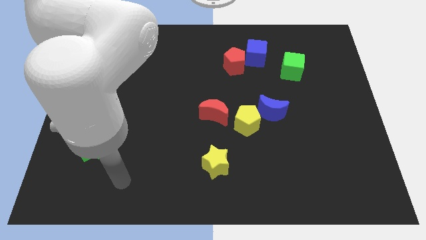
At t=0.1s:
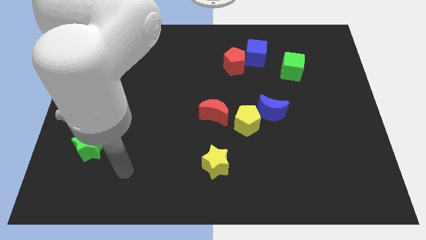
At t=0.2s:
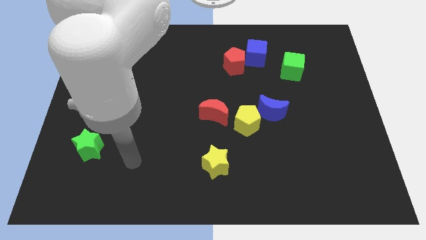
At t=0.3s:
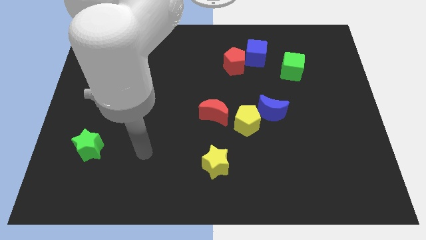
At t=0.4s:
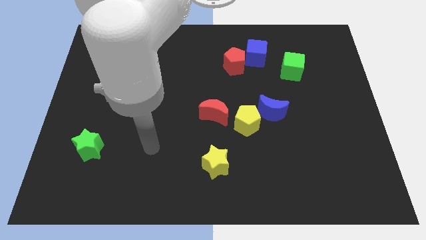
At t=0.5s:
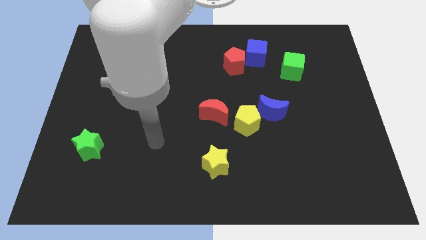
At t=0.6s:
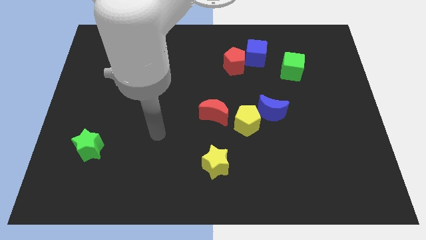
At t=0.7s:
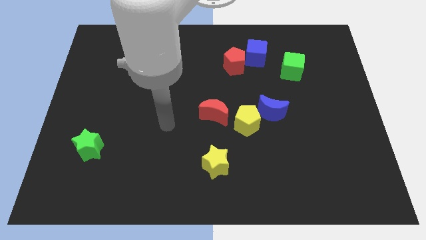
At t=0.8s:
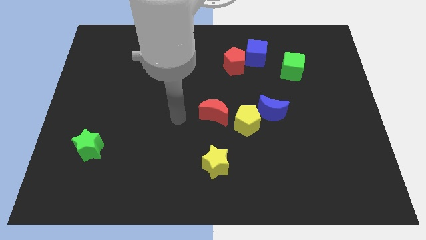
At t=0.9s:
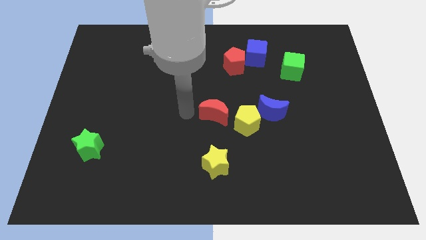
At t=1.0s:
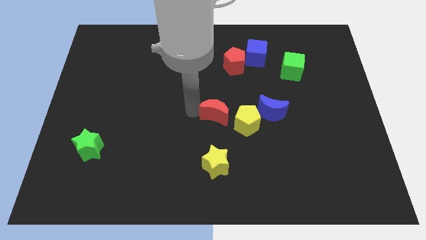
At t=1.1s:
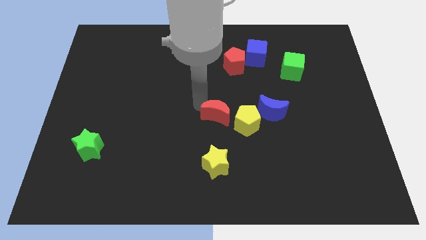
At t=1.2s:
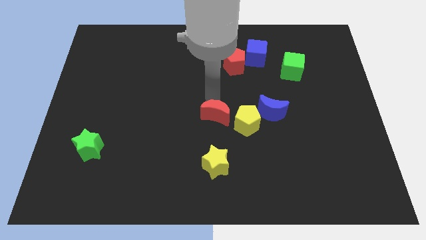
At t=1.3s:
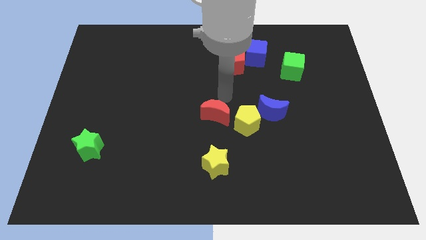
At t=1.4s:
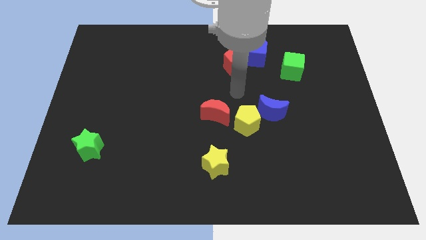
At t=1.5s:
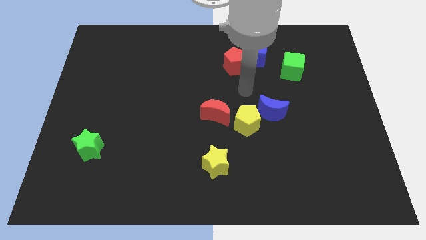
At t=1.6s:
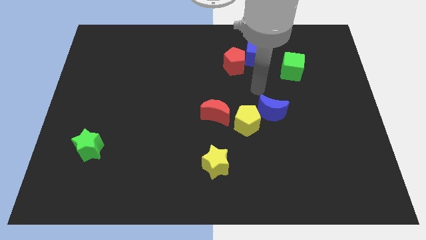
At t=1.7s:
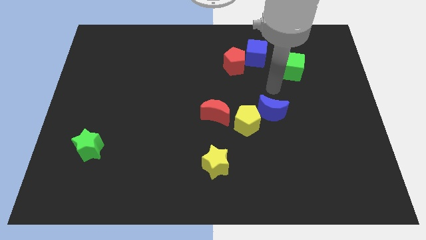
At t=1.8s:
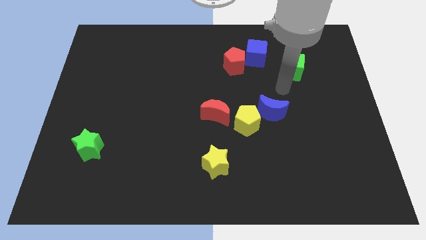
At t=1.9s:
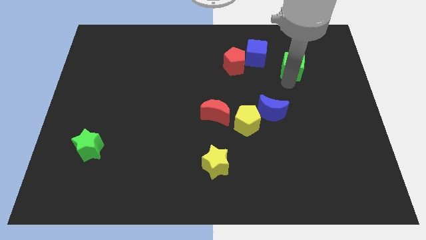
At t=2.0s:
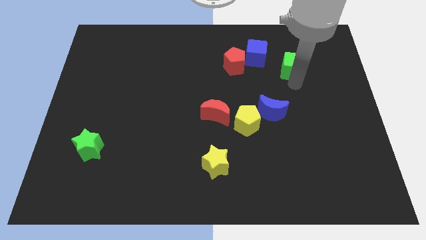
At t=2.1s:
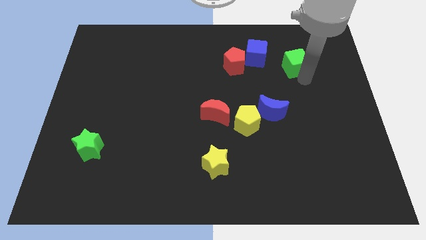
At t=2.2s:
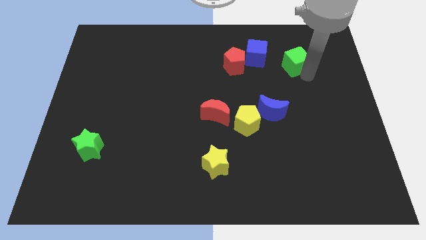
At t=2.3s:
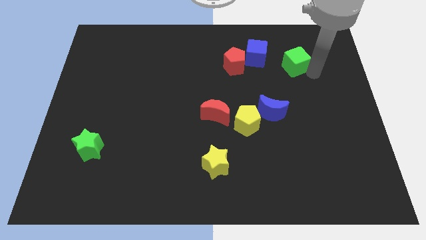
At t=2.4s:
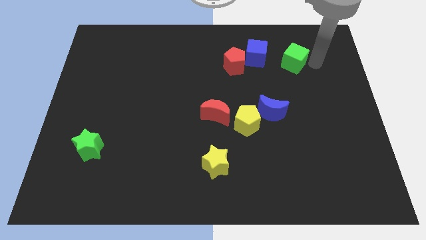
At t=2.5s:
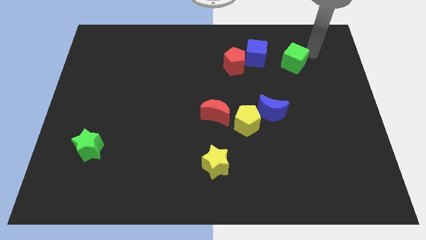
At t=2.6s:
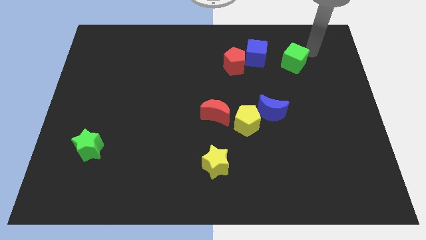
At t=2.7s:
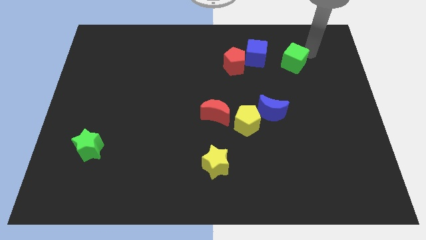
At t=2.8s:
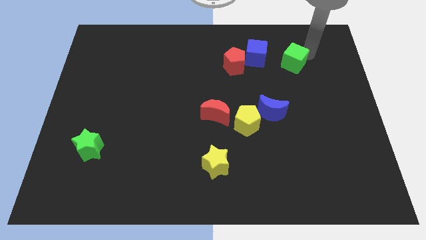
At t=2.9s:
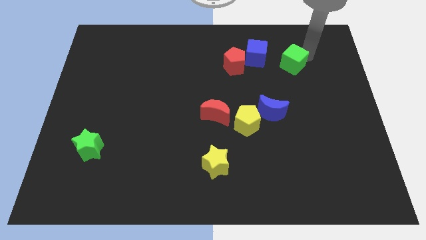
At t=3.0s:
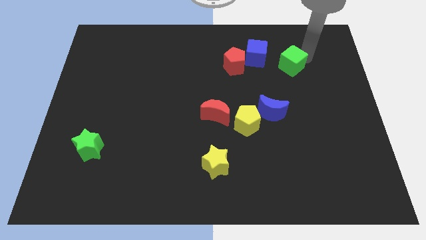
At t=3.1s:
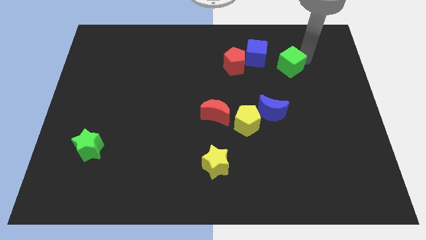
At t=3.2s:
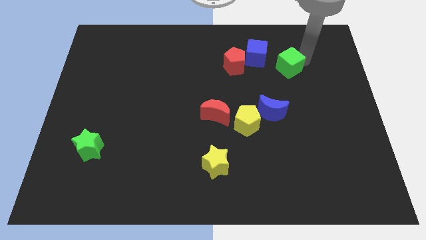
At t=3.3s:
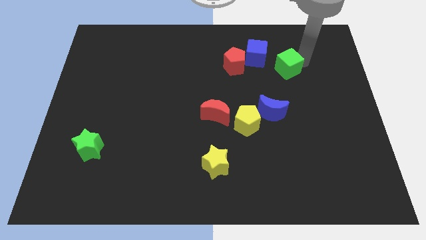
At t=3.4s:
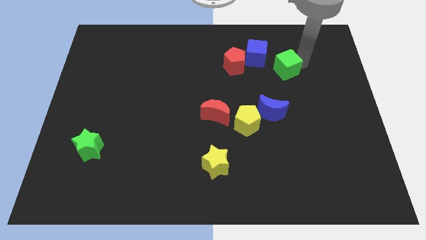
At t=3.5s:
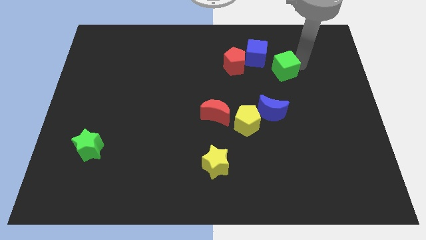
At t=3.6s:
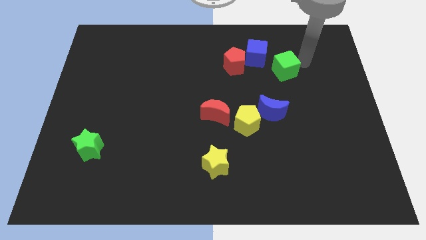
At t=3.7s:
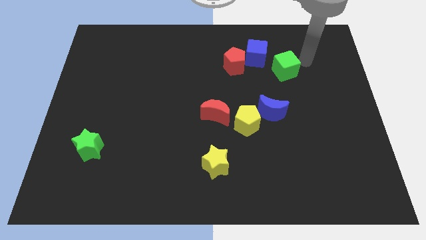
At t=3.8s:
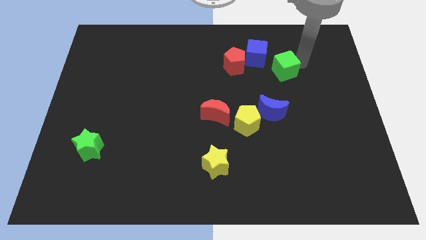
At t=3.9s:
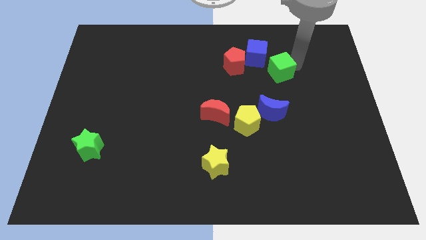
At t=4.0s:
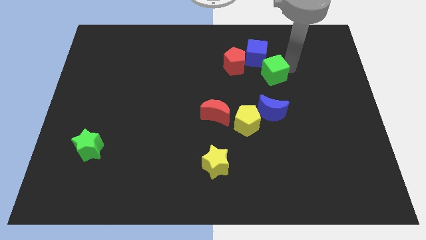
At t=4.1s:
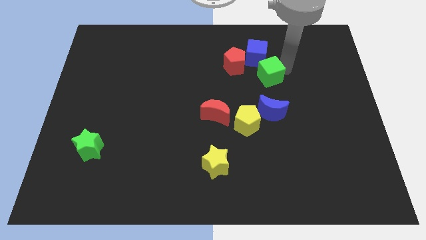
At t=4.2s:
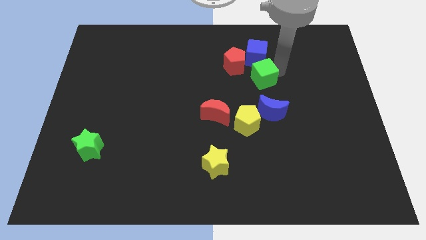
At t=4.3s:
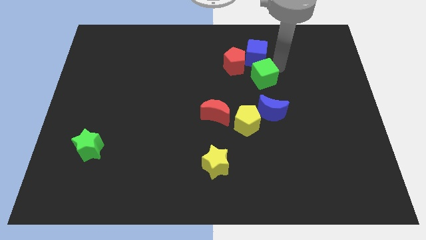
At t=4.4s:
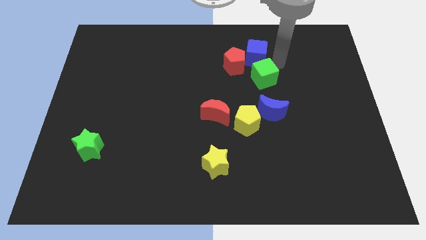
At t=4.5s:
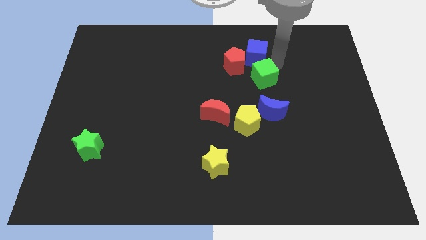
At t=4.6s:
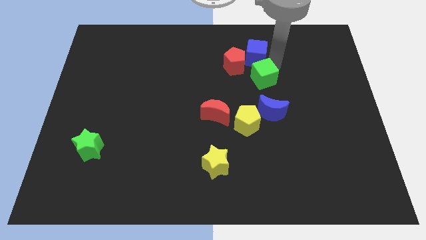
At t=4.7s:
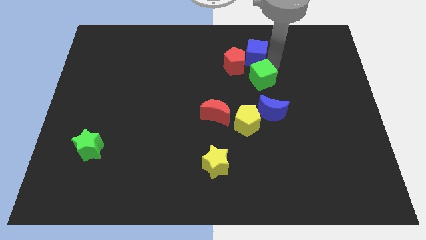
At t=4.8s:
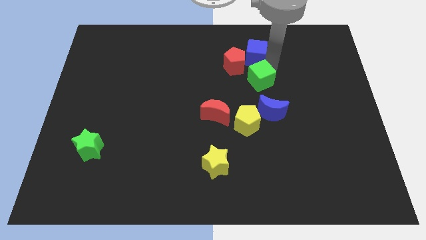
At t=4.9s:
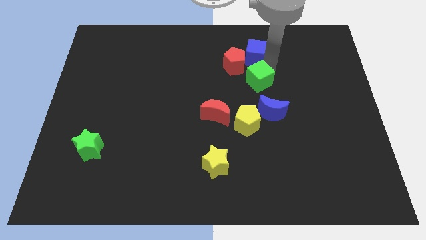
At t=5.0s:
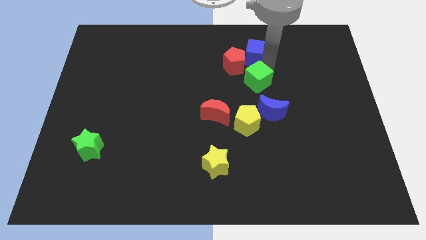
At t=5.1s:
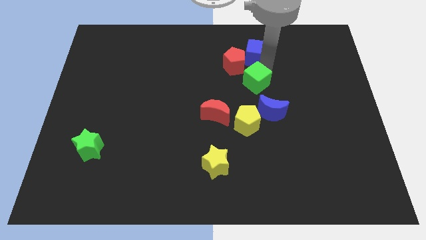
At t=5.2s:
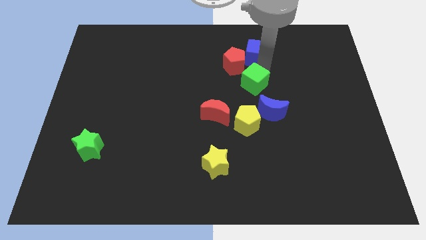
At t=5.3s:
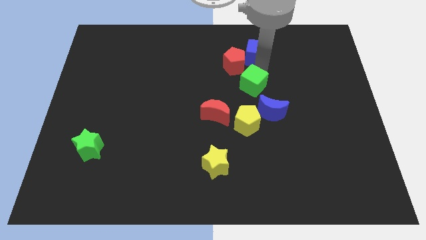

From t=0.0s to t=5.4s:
put the green cube to the top right side of the red moon

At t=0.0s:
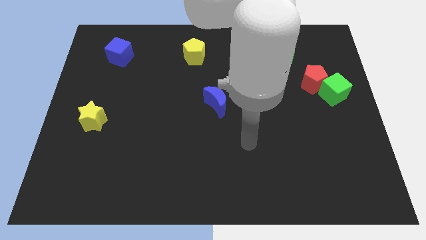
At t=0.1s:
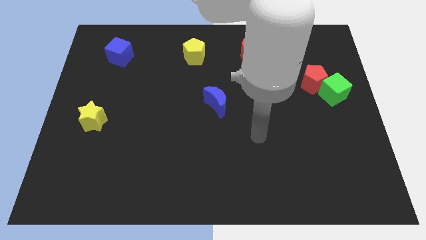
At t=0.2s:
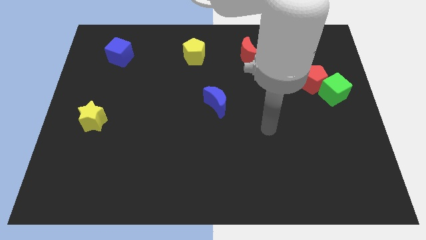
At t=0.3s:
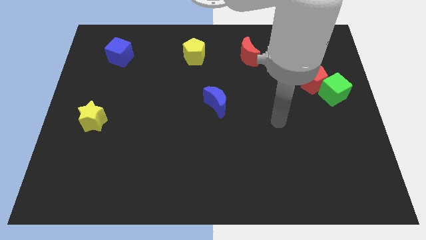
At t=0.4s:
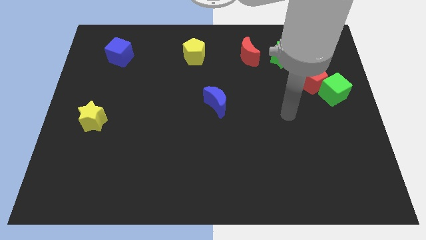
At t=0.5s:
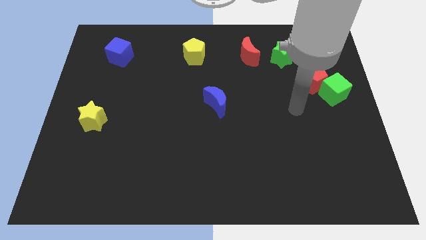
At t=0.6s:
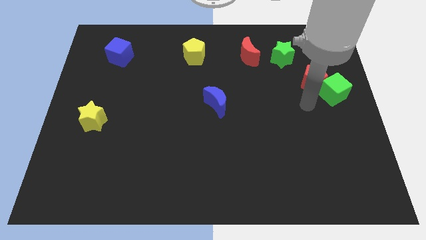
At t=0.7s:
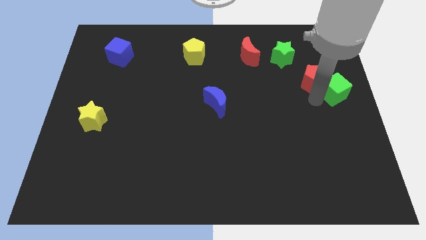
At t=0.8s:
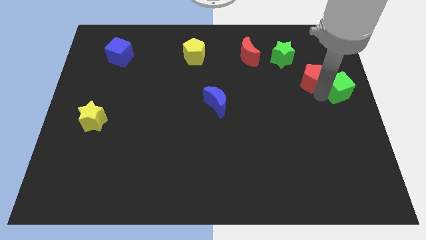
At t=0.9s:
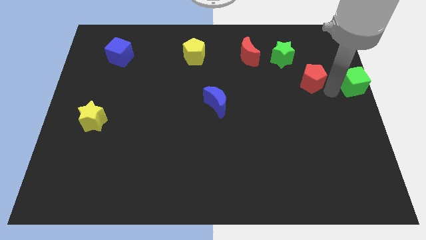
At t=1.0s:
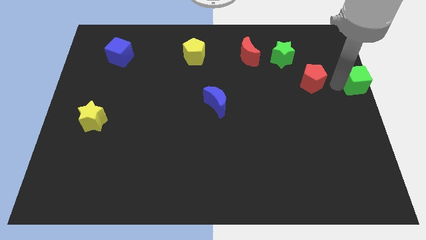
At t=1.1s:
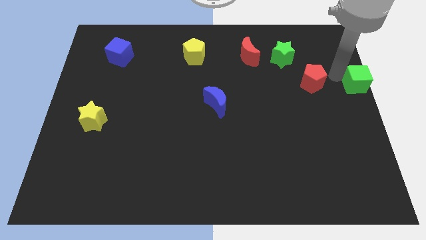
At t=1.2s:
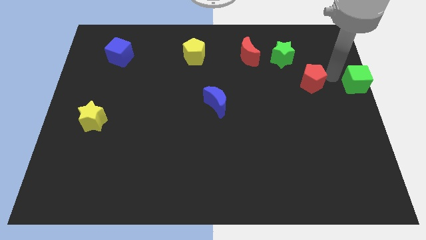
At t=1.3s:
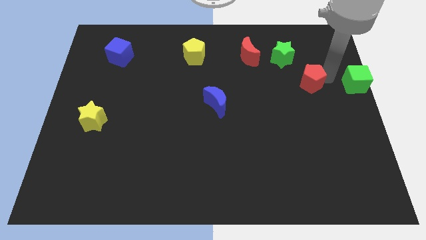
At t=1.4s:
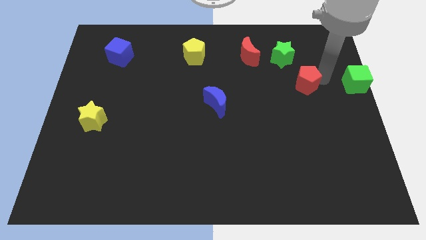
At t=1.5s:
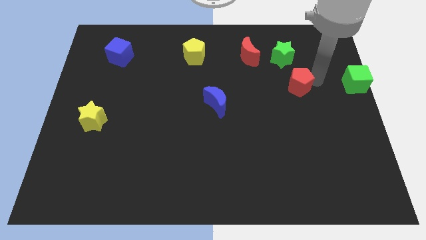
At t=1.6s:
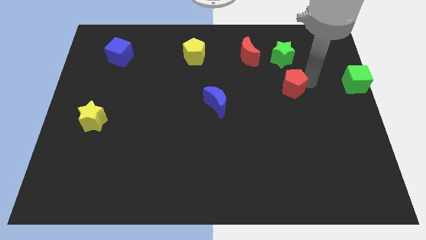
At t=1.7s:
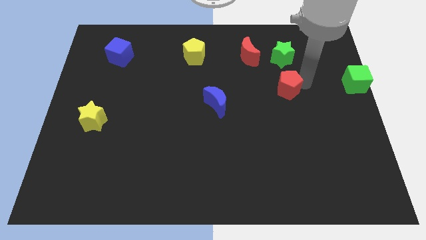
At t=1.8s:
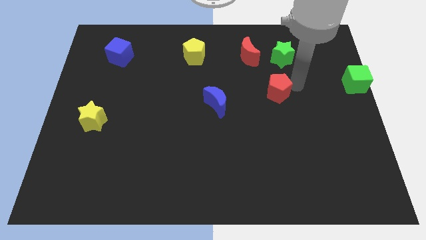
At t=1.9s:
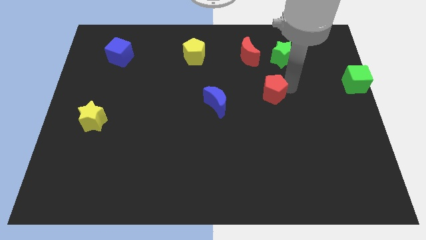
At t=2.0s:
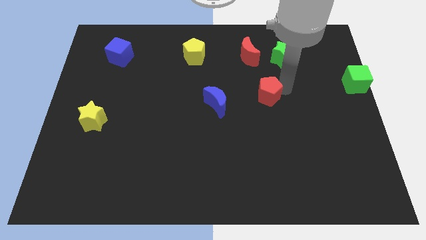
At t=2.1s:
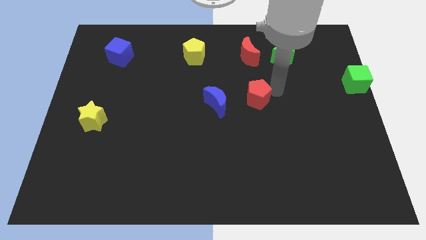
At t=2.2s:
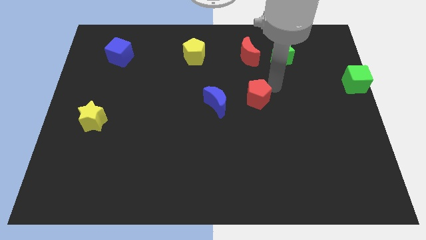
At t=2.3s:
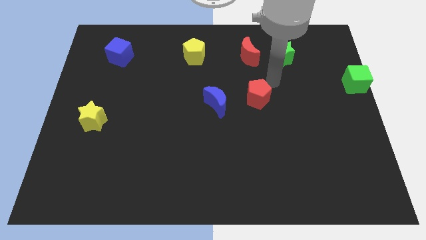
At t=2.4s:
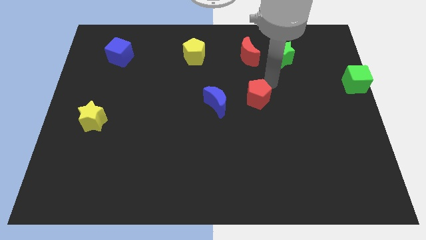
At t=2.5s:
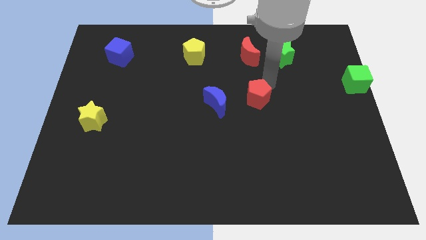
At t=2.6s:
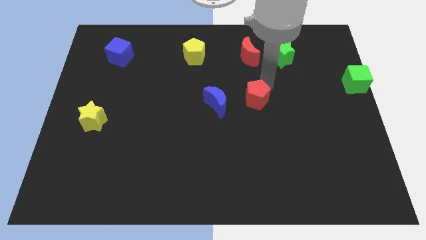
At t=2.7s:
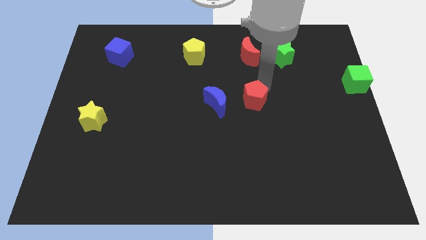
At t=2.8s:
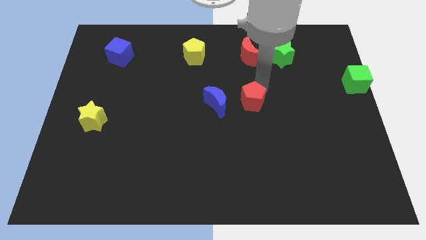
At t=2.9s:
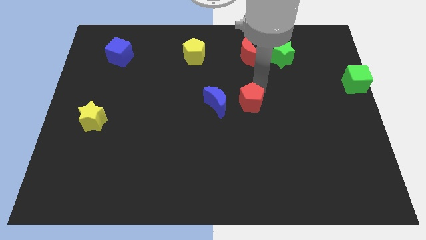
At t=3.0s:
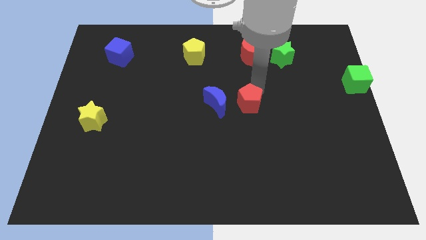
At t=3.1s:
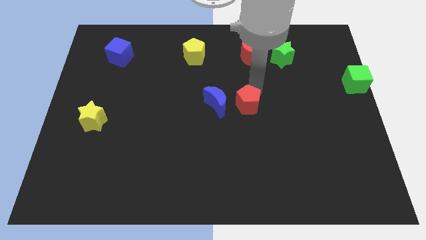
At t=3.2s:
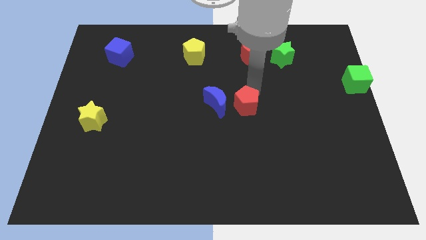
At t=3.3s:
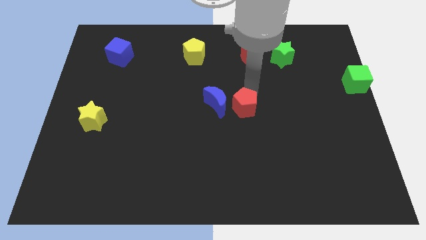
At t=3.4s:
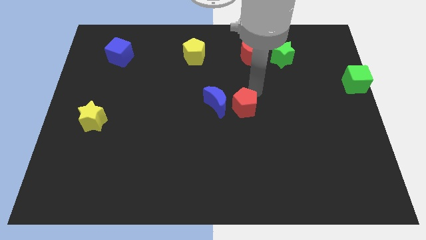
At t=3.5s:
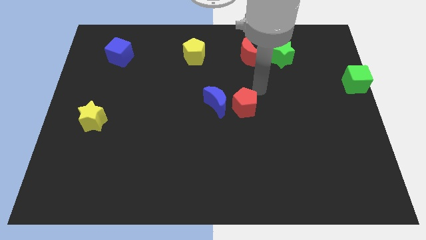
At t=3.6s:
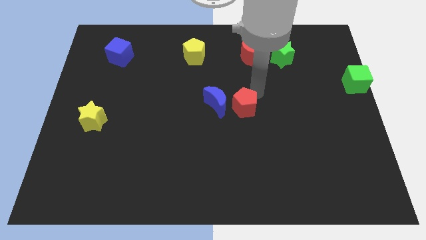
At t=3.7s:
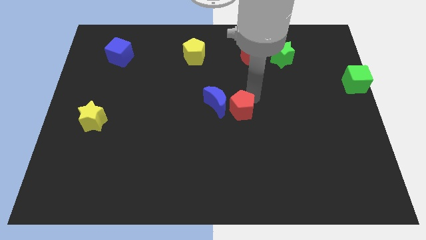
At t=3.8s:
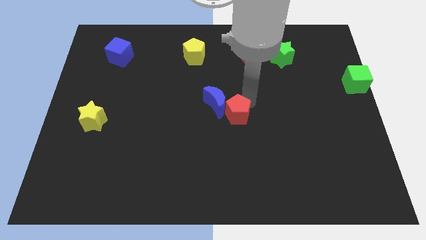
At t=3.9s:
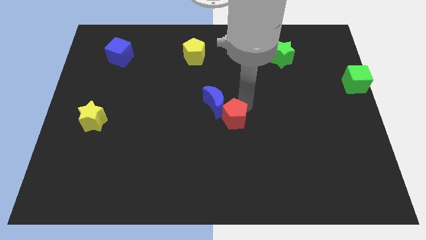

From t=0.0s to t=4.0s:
push the red pentagon below the blue moon
